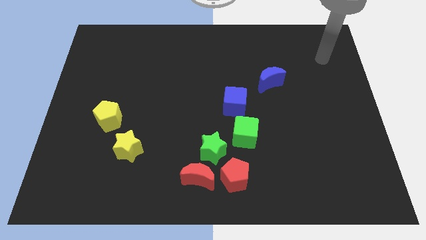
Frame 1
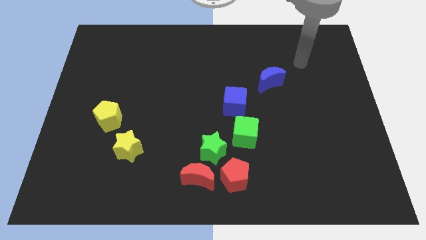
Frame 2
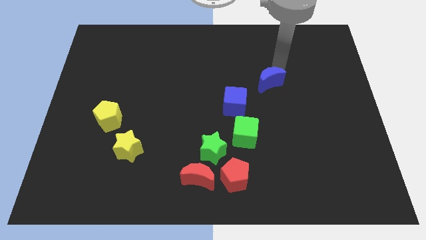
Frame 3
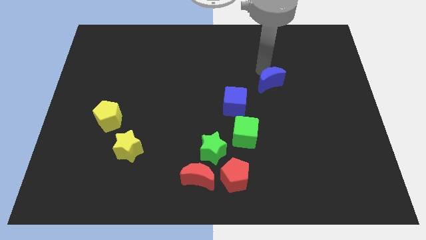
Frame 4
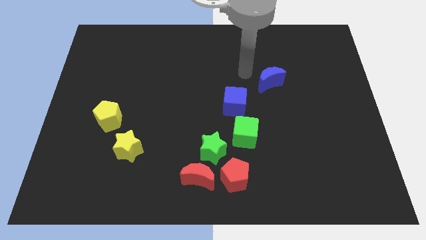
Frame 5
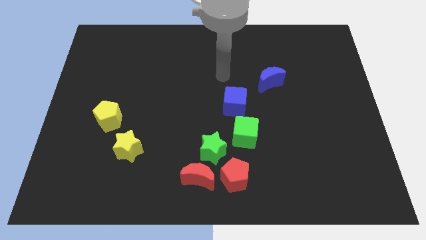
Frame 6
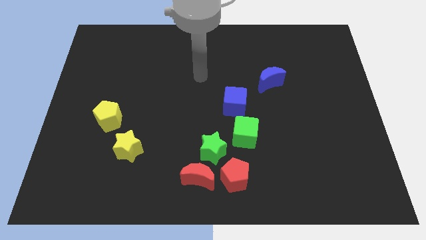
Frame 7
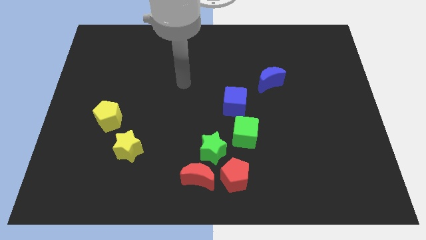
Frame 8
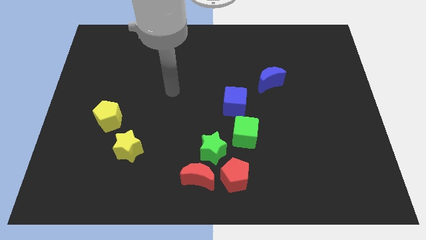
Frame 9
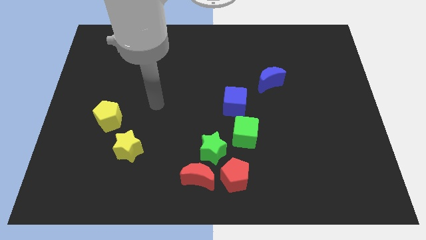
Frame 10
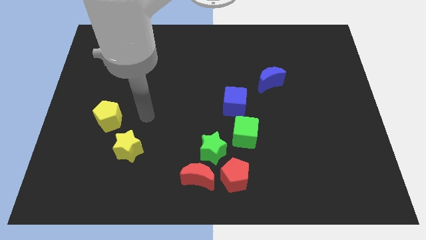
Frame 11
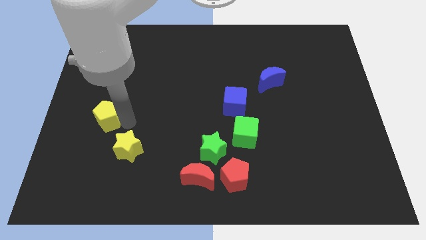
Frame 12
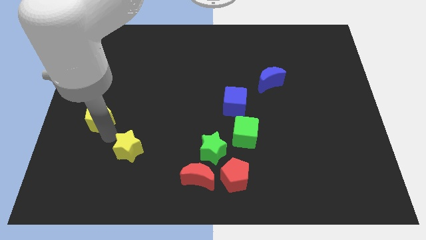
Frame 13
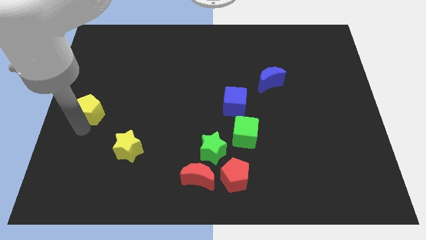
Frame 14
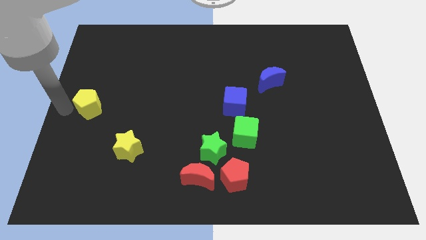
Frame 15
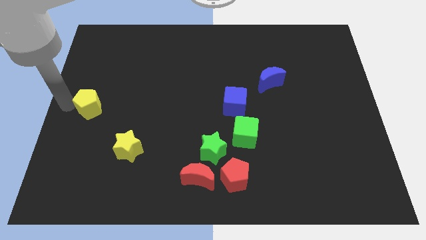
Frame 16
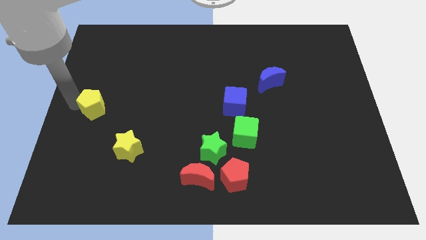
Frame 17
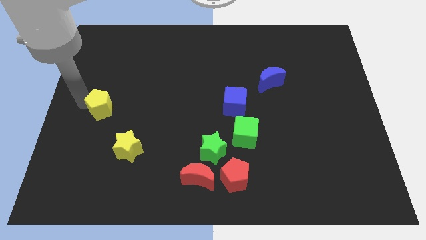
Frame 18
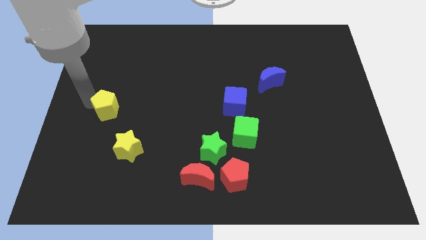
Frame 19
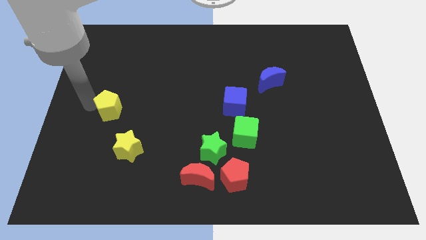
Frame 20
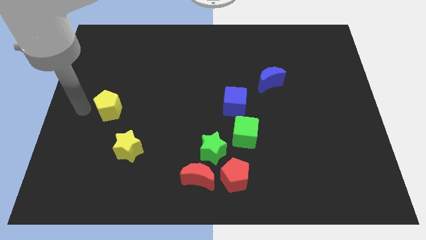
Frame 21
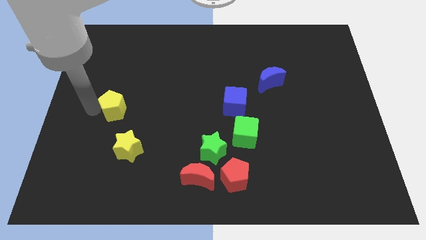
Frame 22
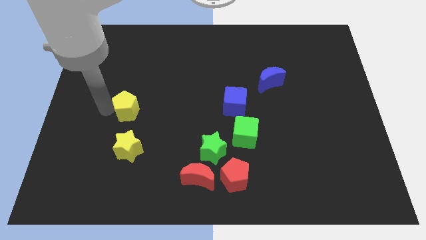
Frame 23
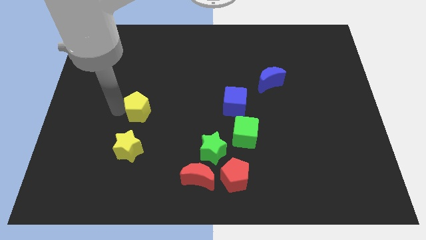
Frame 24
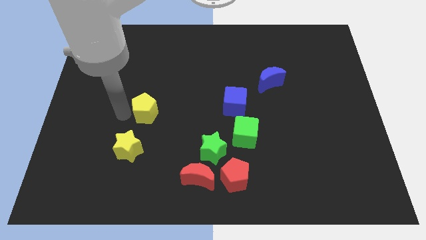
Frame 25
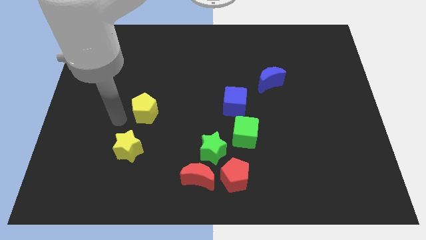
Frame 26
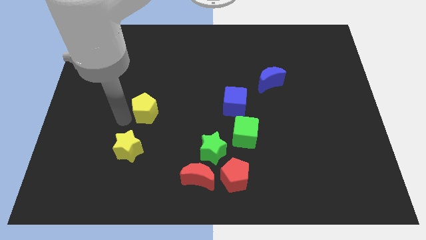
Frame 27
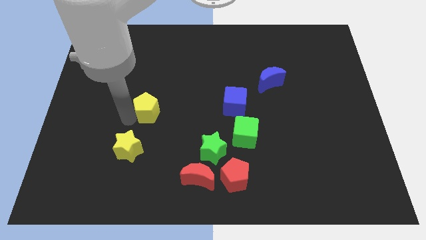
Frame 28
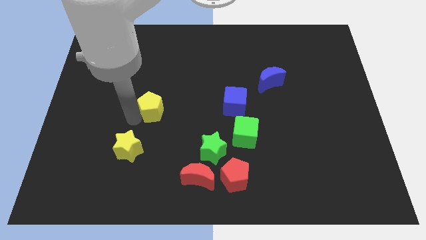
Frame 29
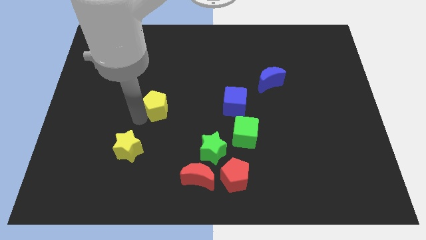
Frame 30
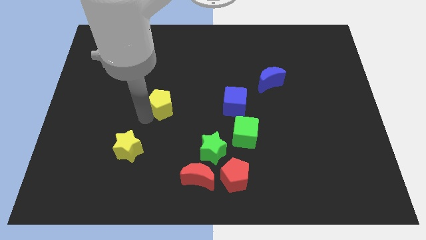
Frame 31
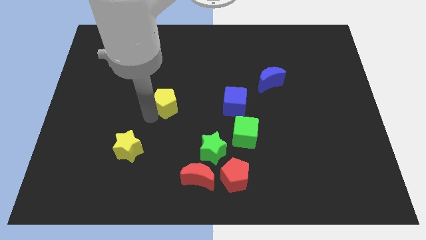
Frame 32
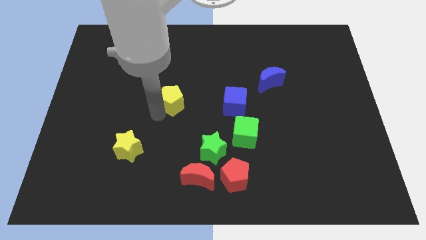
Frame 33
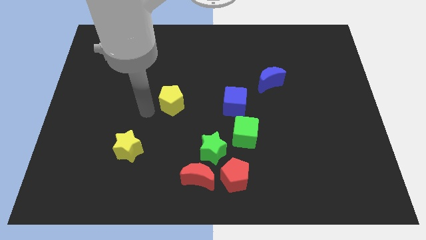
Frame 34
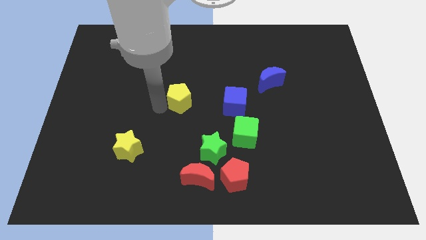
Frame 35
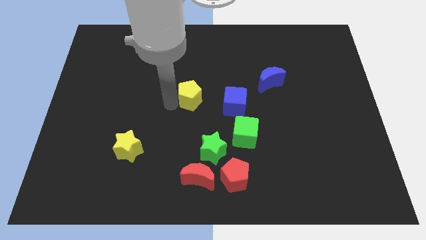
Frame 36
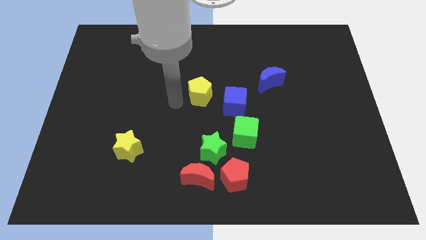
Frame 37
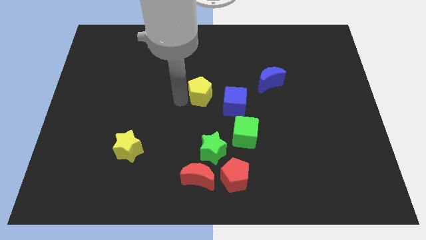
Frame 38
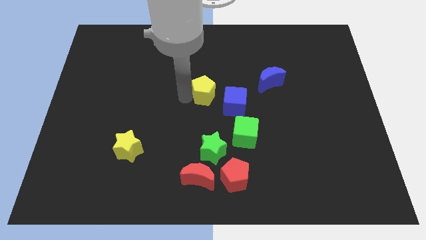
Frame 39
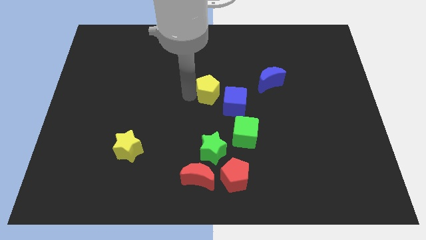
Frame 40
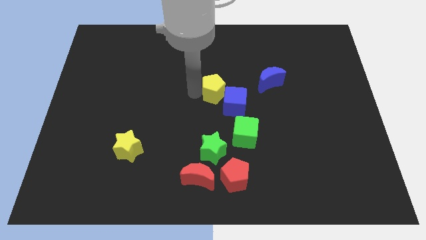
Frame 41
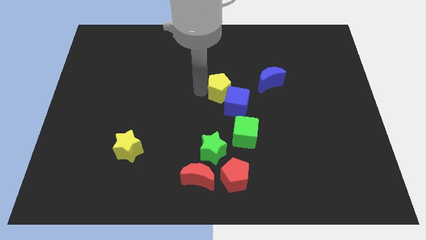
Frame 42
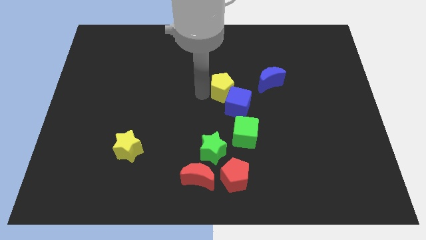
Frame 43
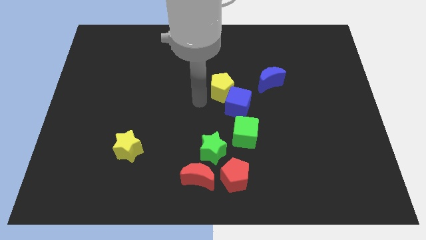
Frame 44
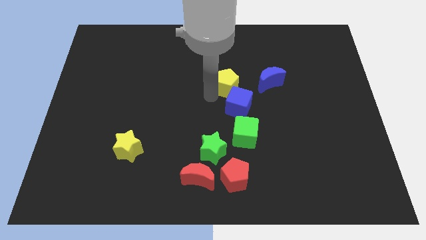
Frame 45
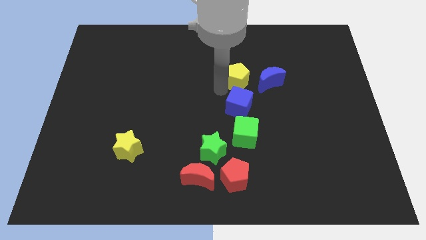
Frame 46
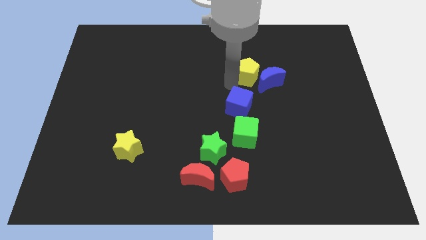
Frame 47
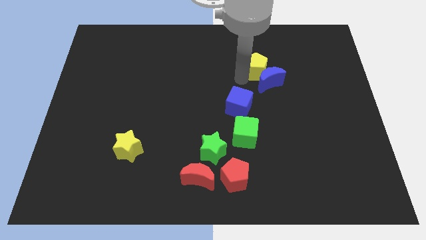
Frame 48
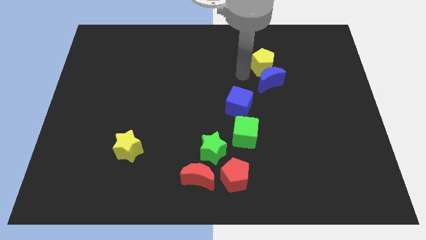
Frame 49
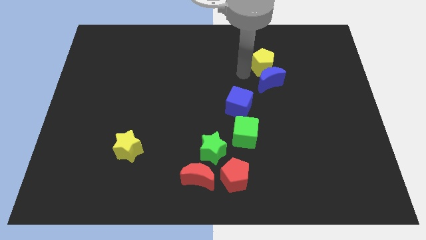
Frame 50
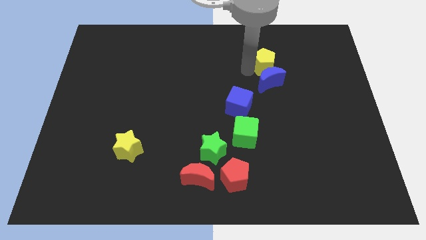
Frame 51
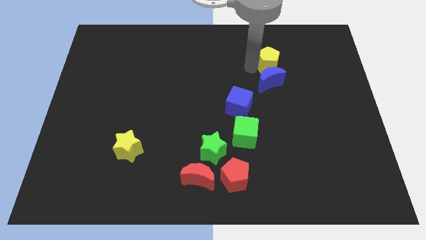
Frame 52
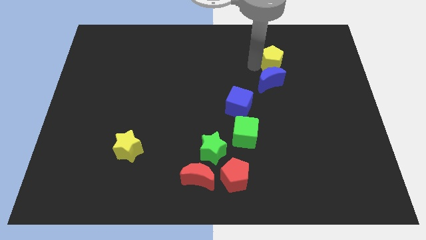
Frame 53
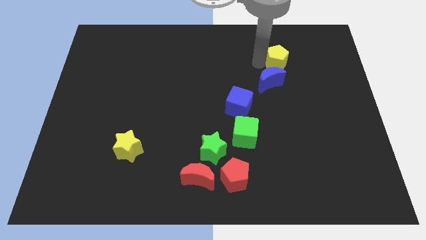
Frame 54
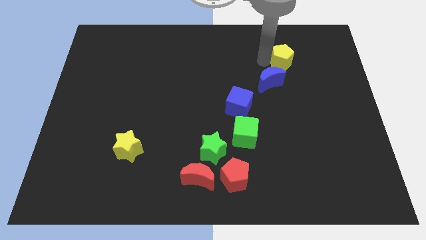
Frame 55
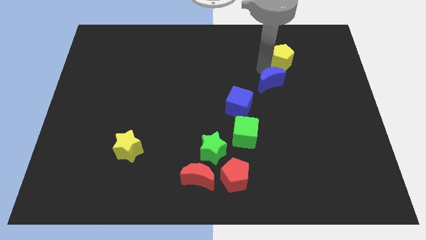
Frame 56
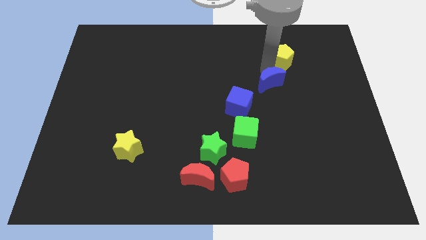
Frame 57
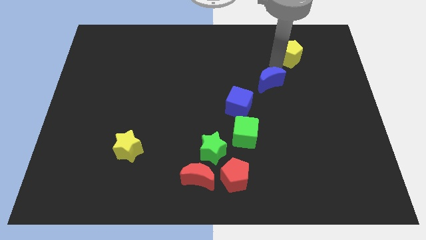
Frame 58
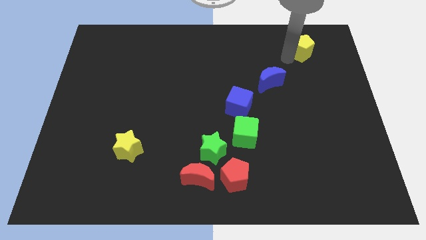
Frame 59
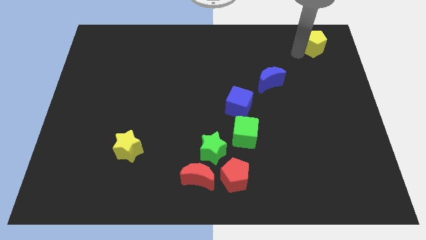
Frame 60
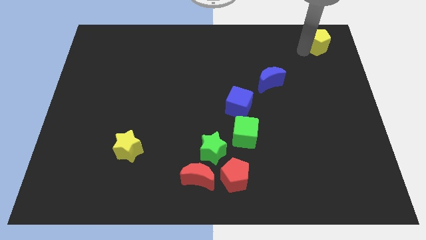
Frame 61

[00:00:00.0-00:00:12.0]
put the yellow pentagon to the upper right corner

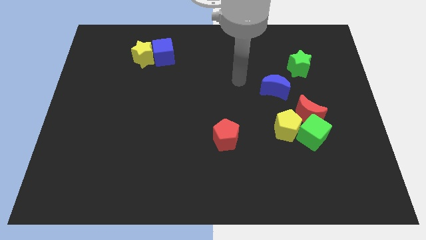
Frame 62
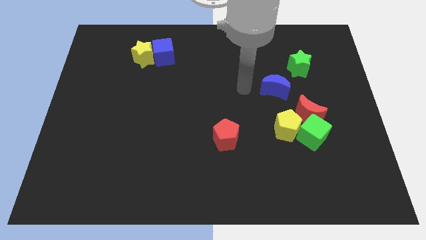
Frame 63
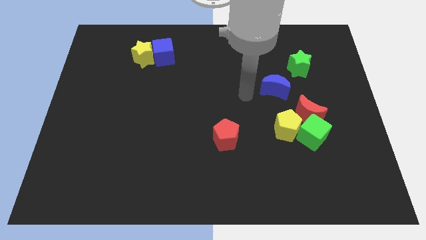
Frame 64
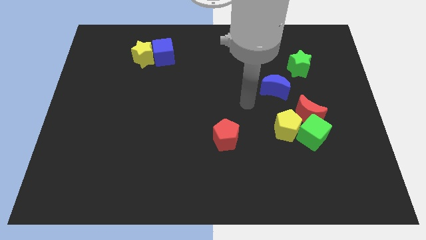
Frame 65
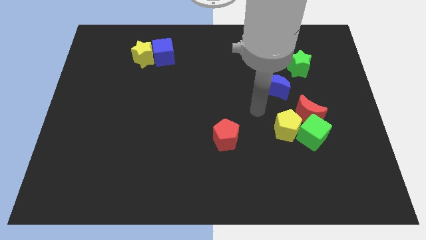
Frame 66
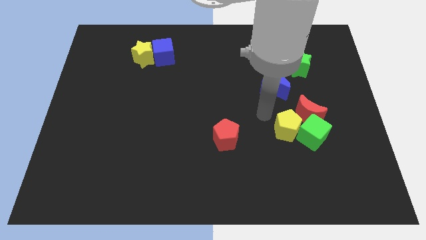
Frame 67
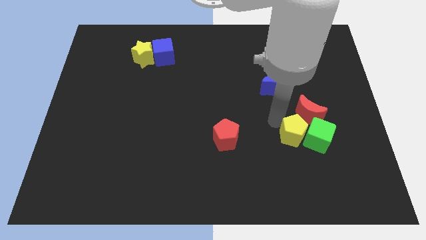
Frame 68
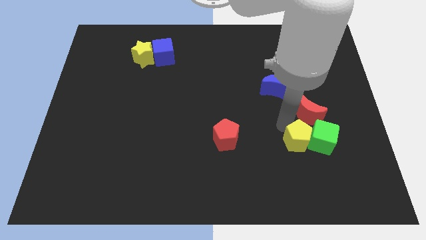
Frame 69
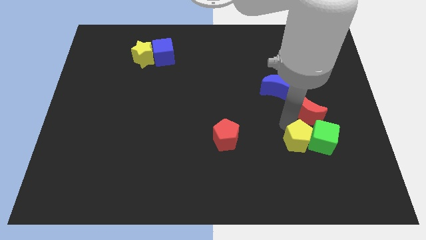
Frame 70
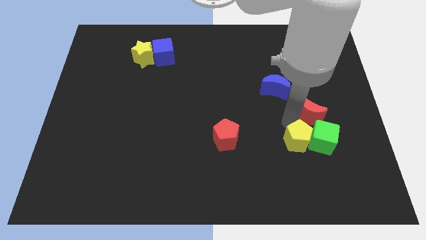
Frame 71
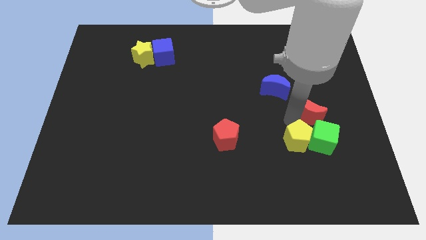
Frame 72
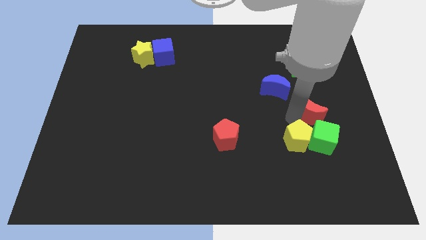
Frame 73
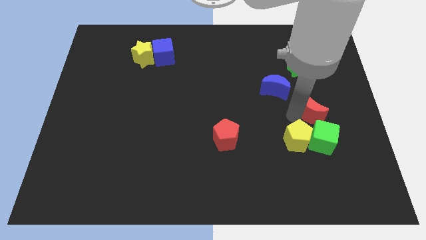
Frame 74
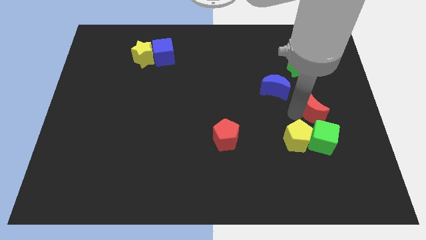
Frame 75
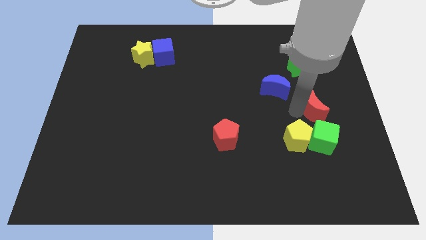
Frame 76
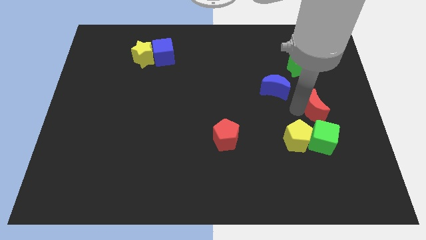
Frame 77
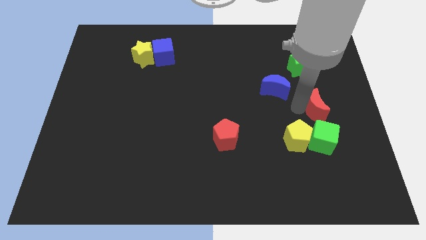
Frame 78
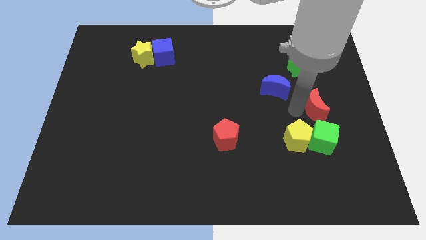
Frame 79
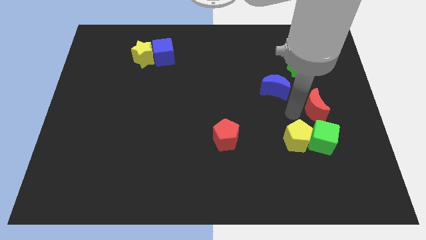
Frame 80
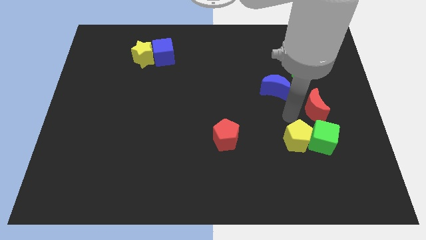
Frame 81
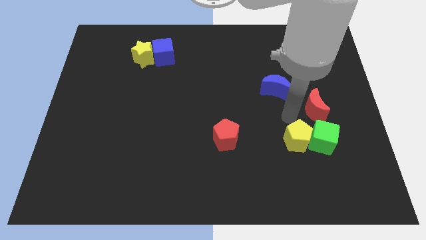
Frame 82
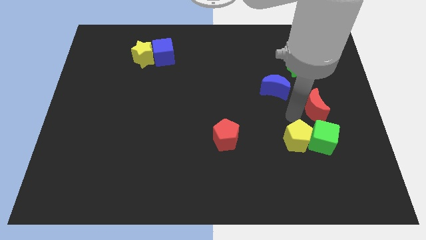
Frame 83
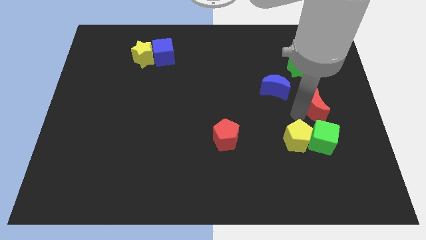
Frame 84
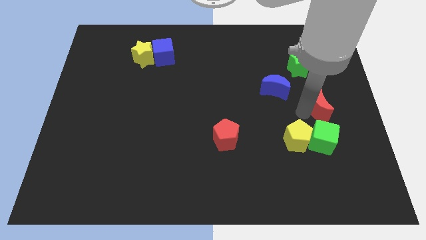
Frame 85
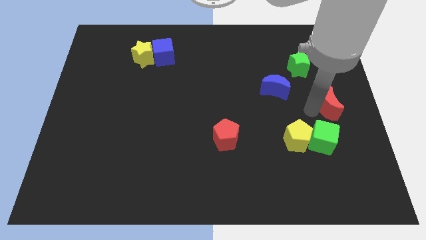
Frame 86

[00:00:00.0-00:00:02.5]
move the red moon to the center right
